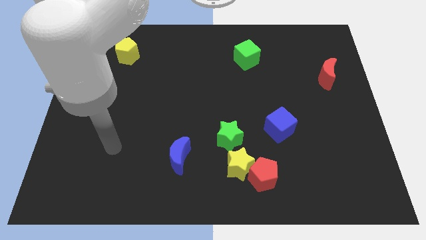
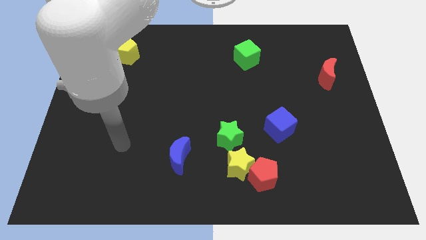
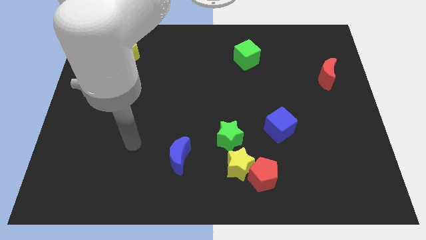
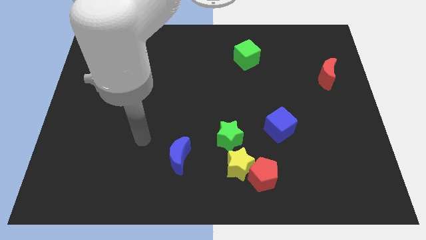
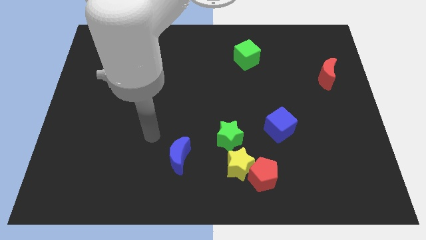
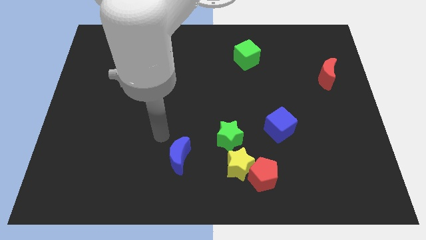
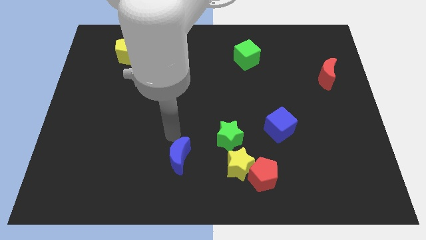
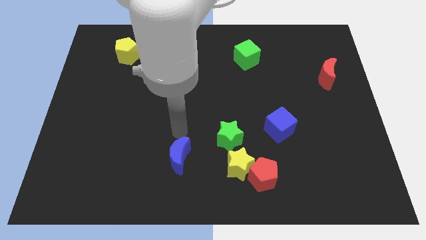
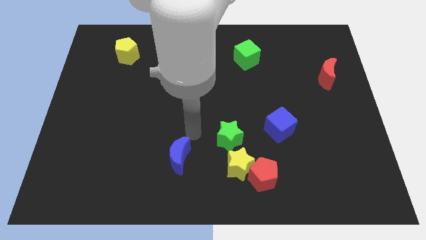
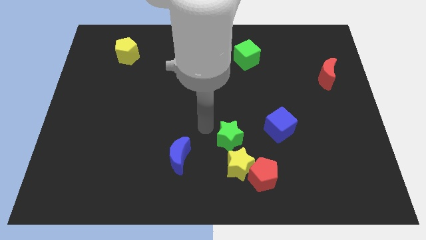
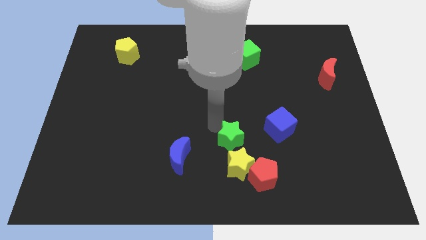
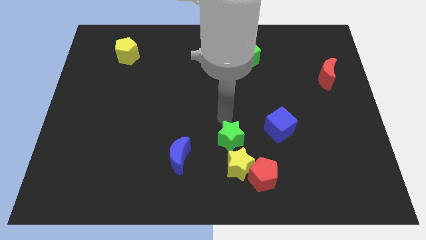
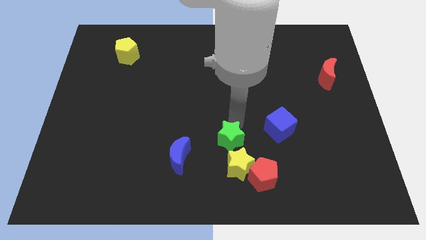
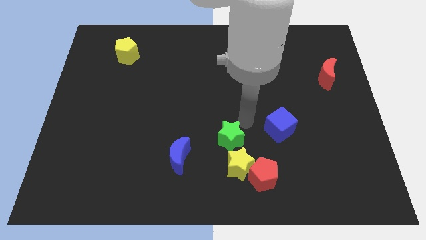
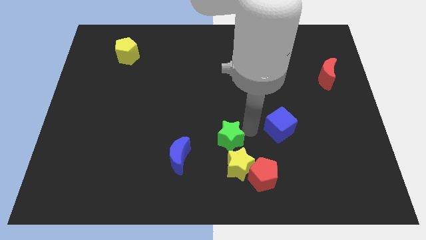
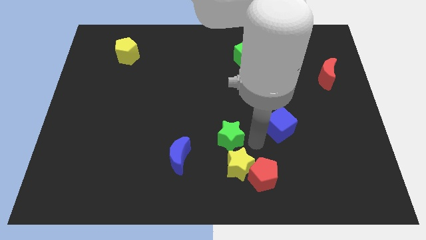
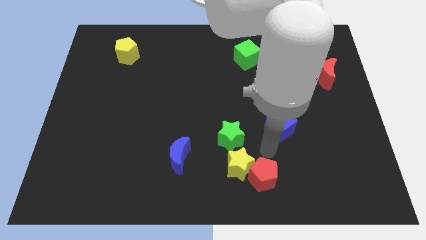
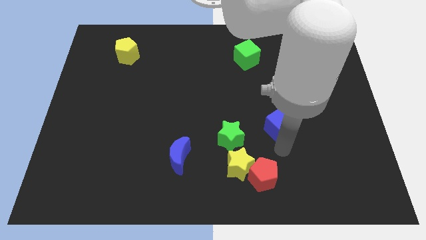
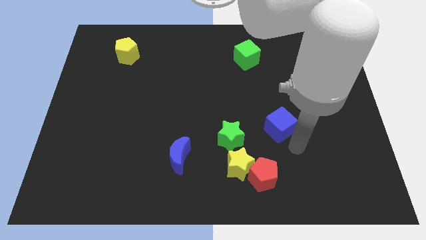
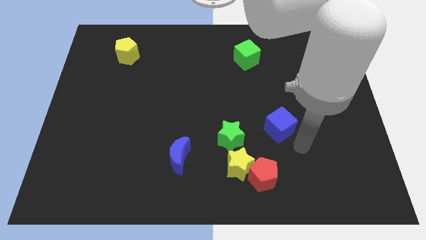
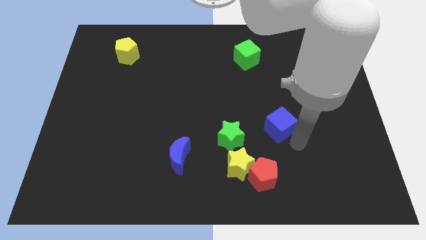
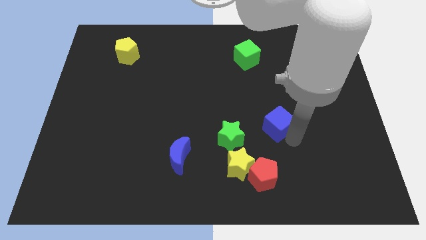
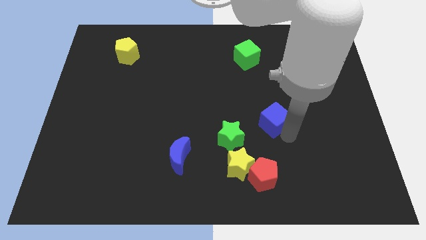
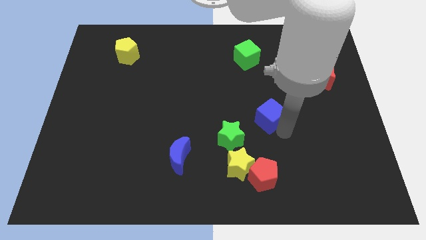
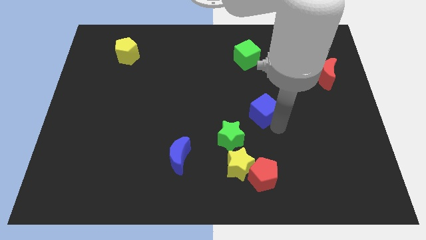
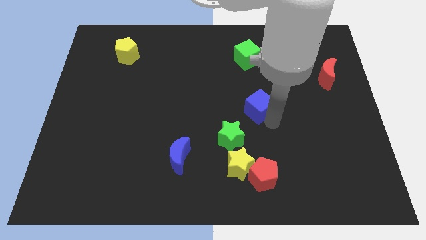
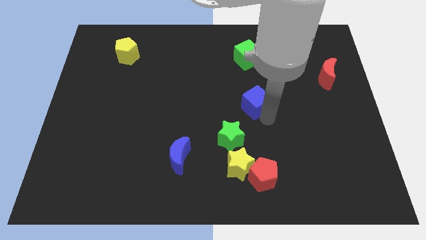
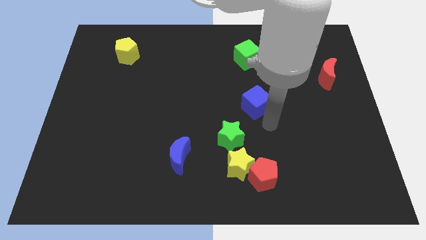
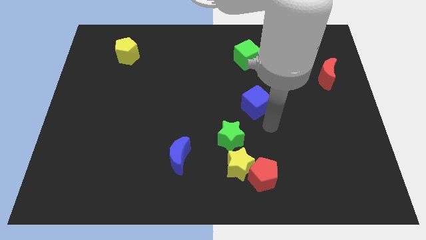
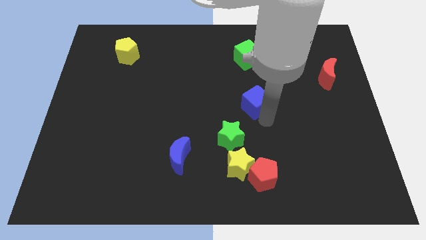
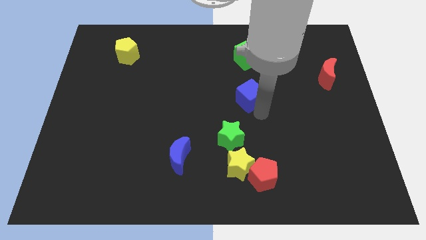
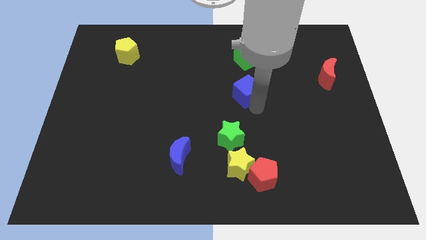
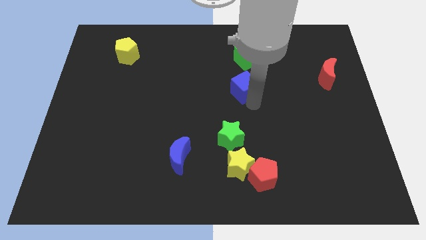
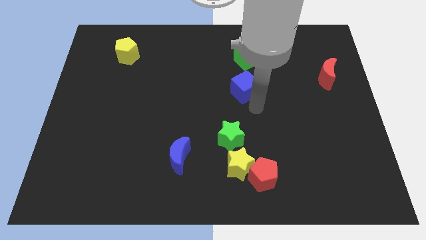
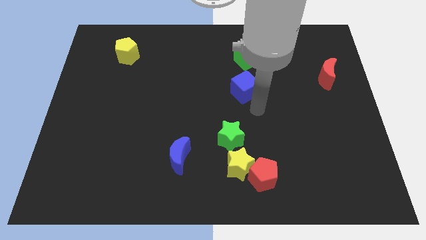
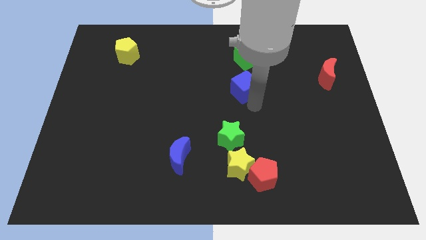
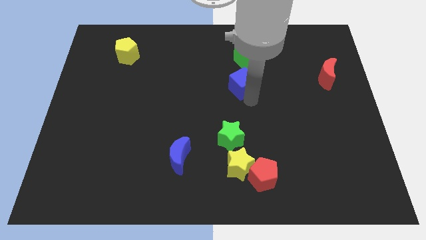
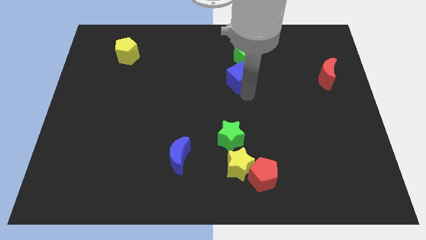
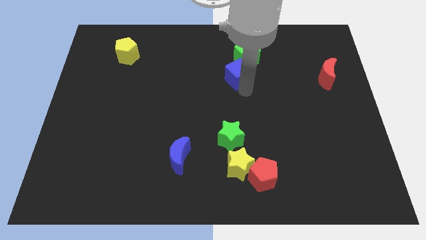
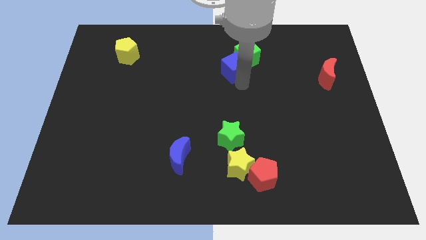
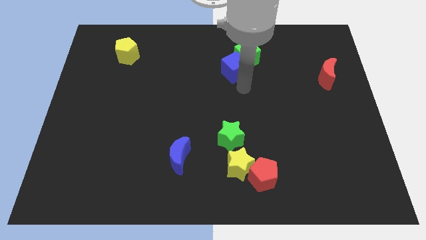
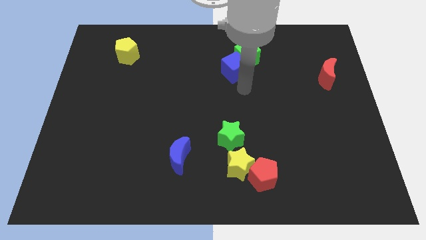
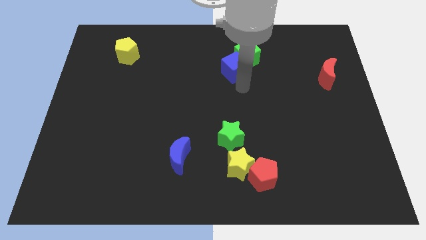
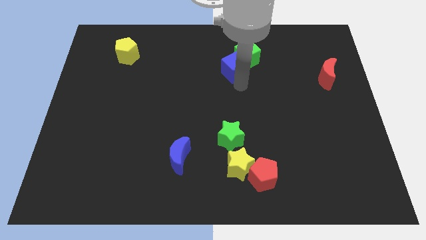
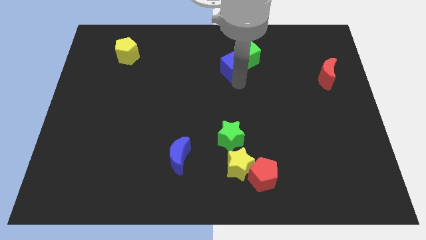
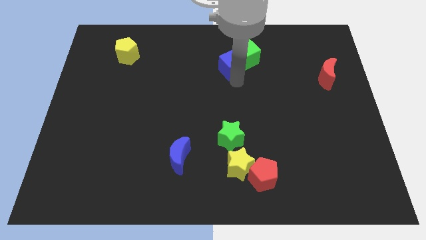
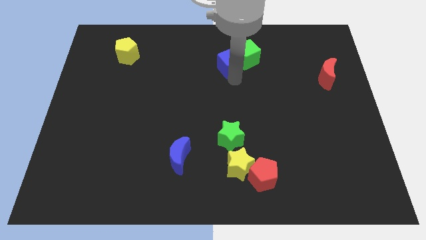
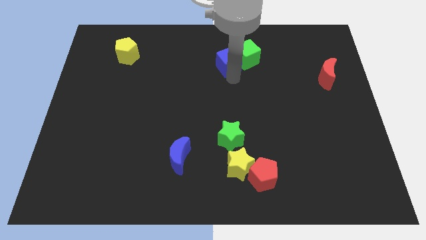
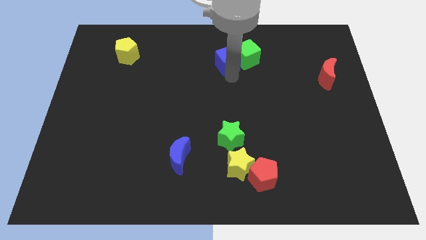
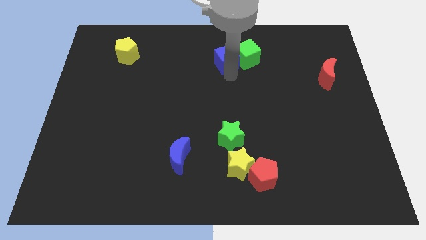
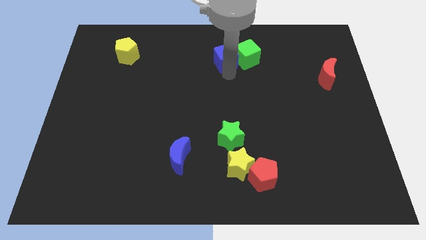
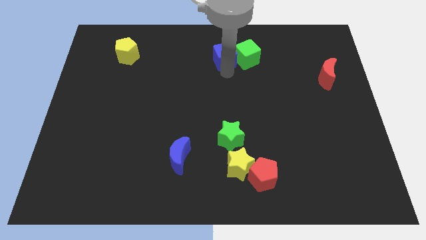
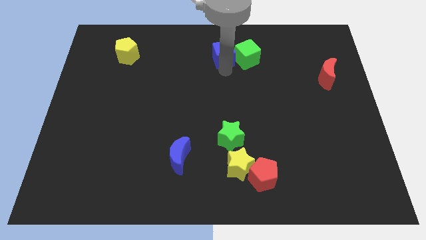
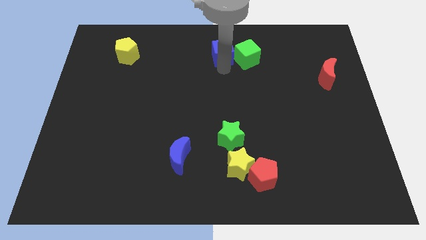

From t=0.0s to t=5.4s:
move the blue cube to the top

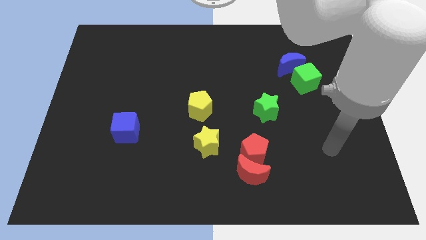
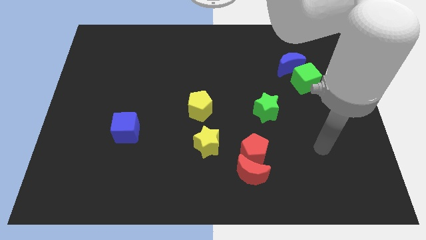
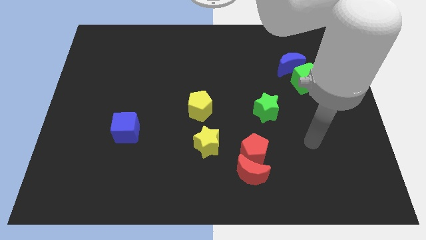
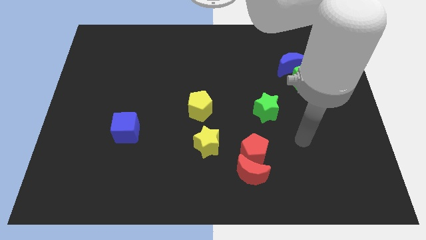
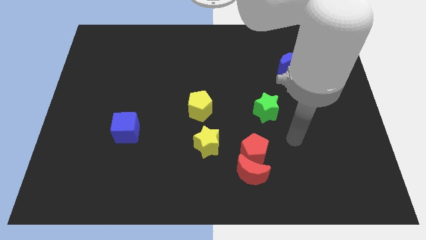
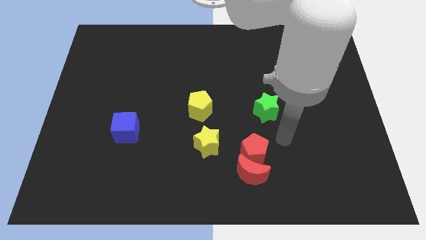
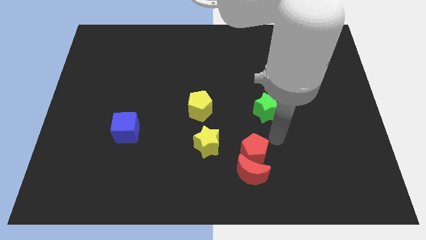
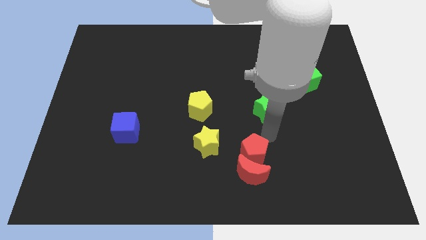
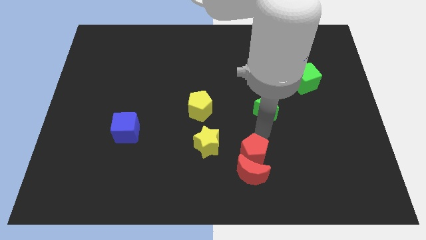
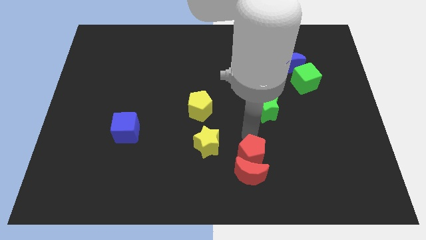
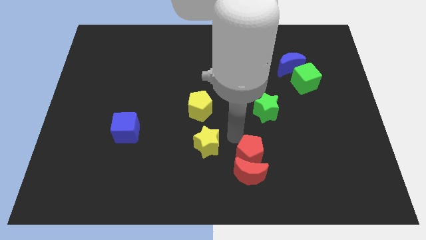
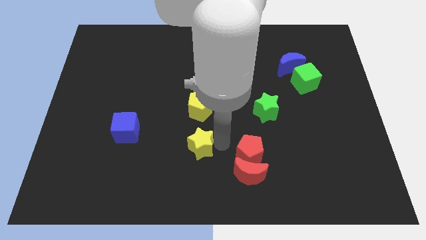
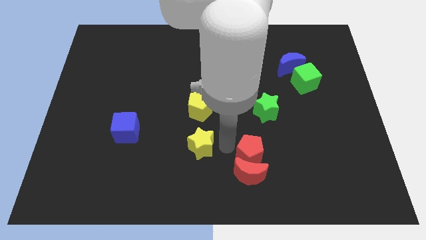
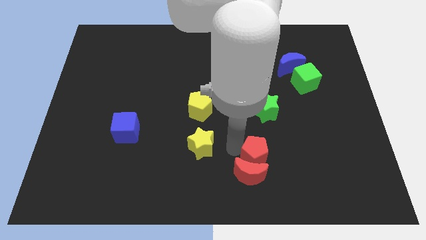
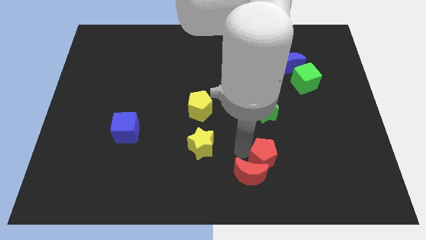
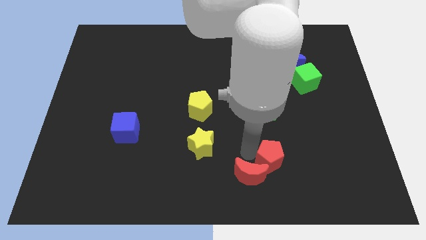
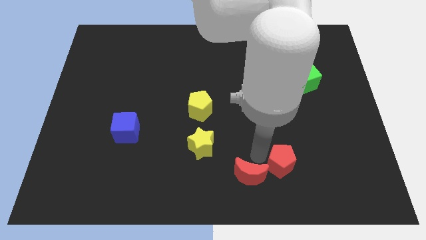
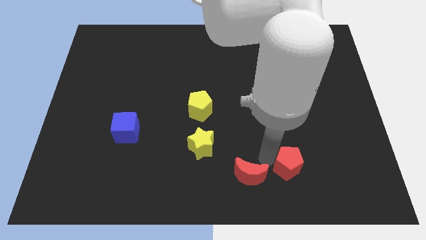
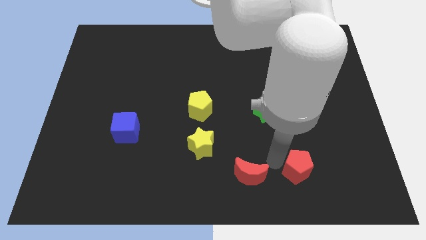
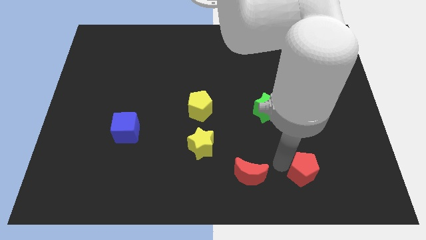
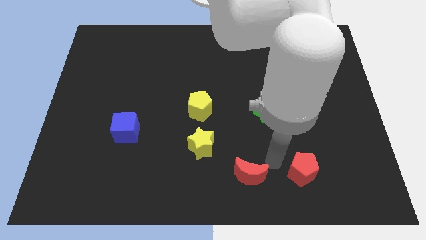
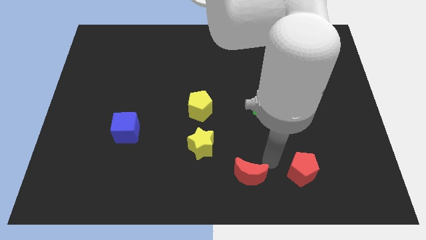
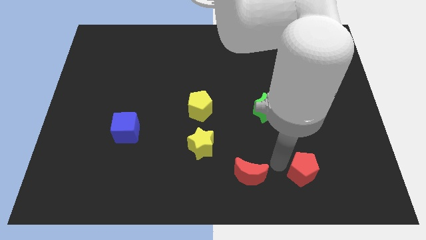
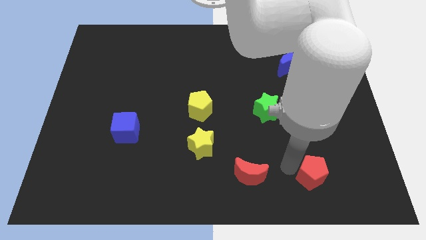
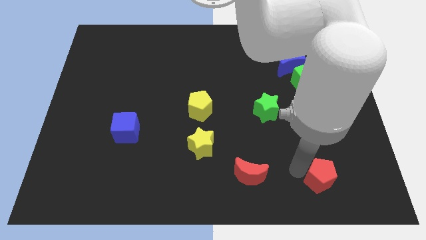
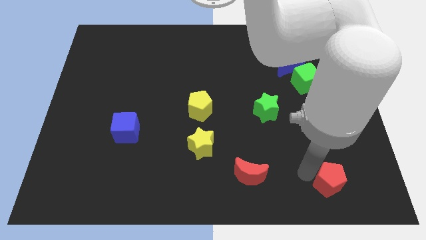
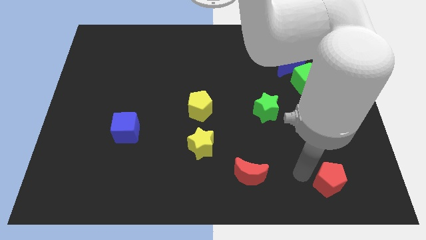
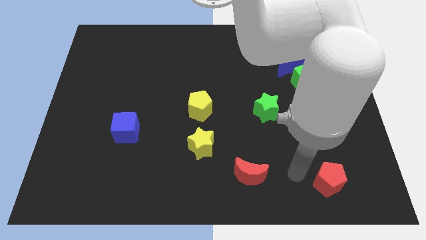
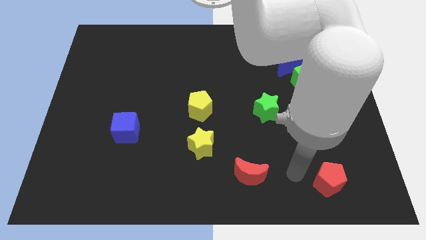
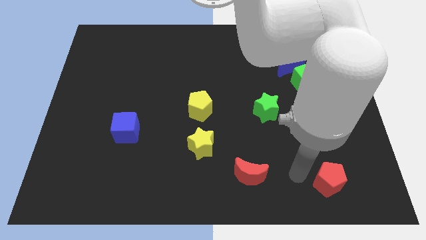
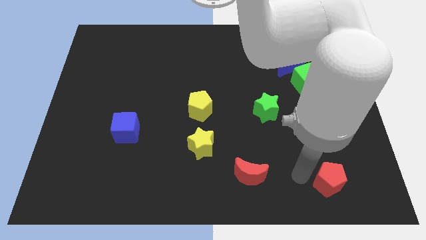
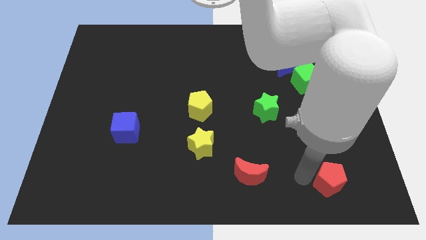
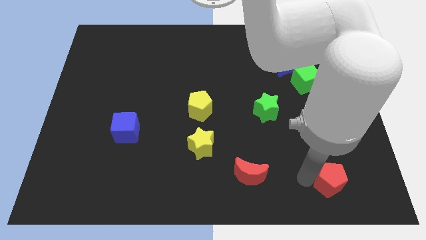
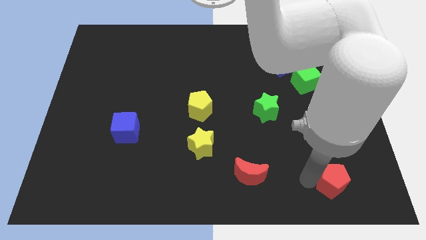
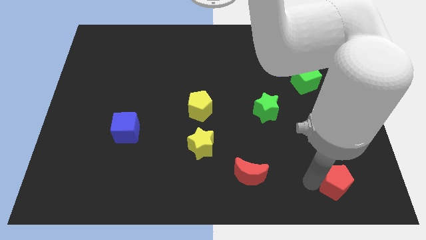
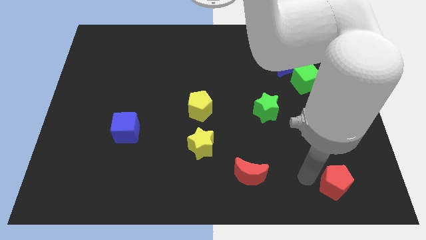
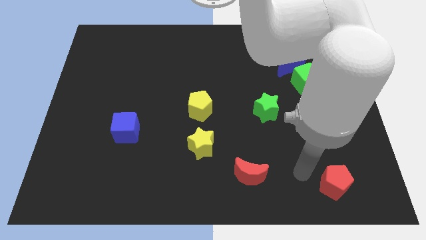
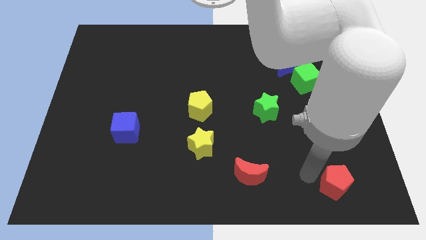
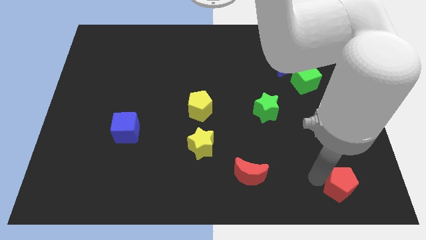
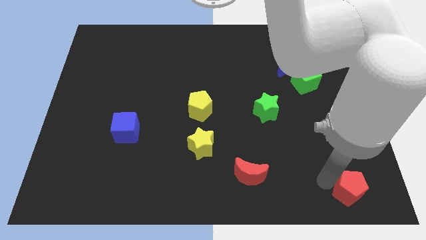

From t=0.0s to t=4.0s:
slide the red pentagon to the lower right corner
